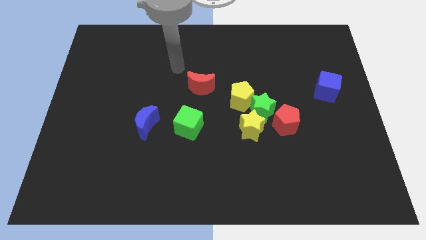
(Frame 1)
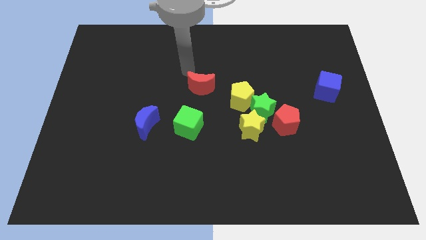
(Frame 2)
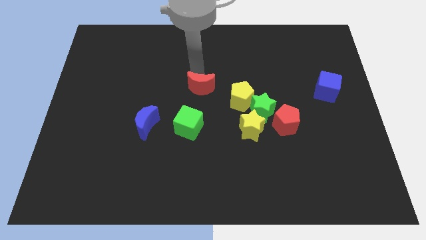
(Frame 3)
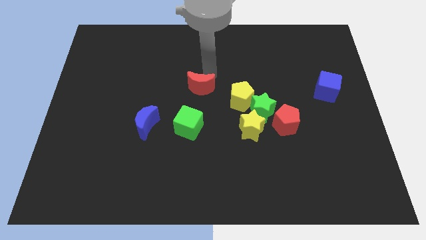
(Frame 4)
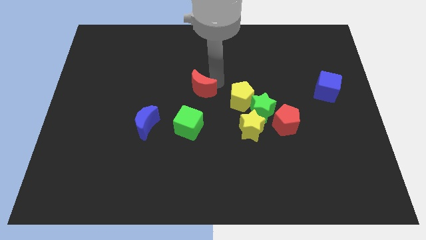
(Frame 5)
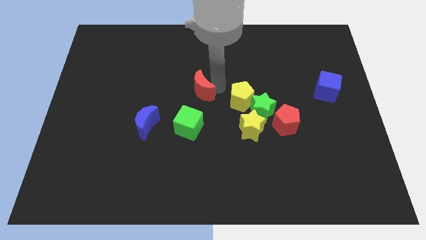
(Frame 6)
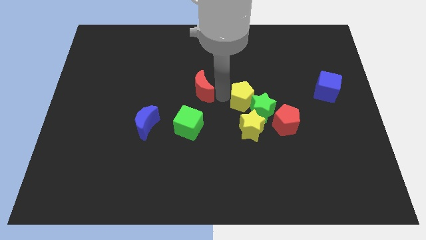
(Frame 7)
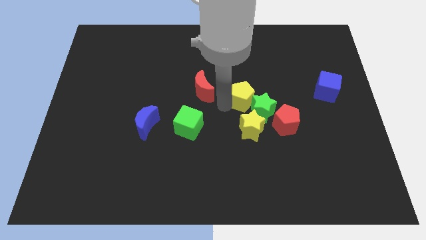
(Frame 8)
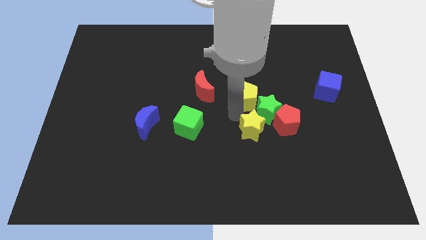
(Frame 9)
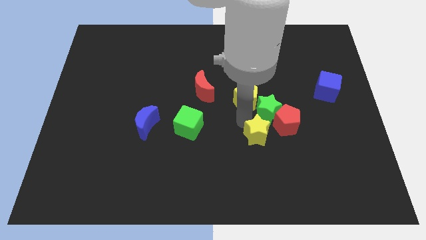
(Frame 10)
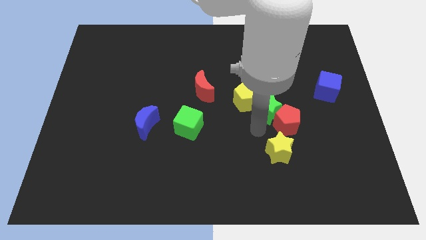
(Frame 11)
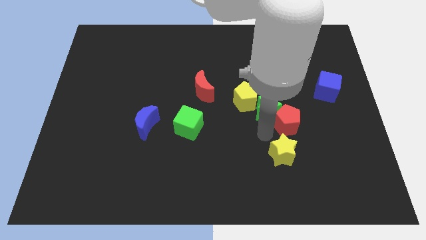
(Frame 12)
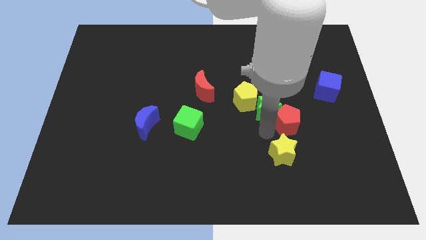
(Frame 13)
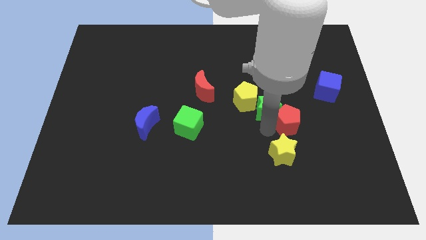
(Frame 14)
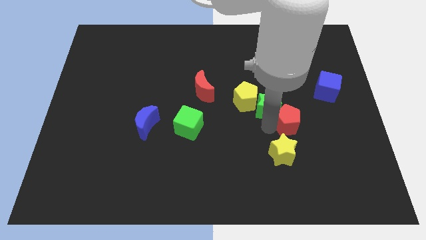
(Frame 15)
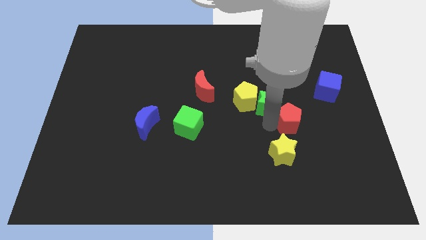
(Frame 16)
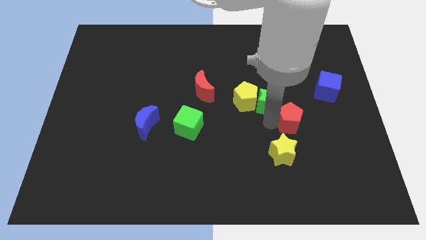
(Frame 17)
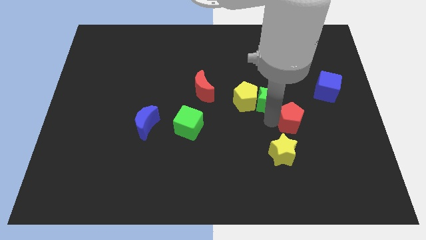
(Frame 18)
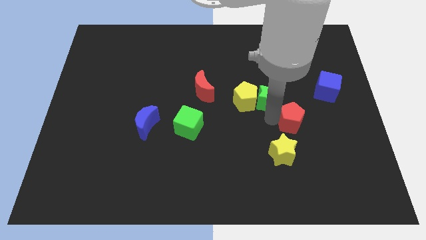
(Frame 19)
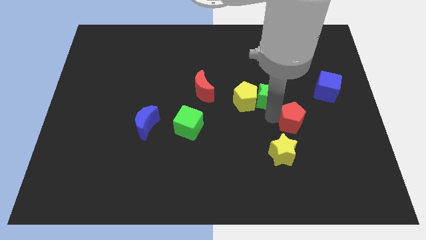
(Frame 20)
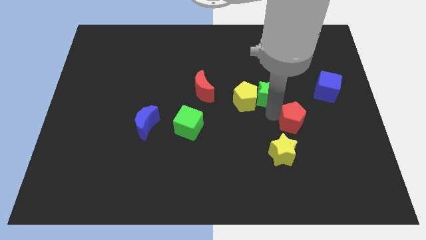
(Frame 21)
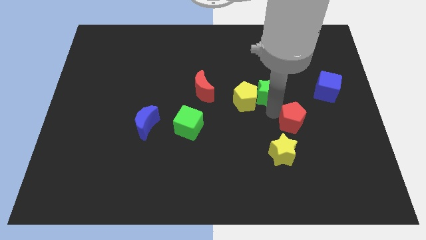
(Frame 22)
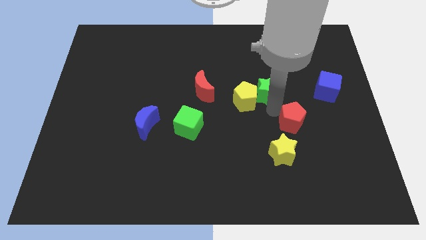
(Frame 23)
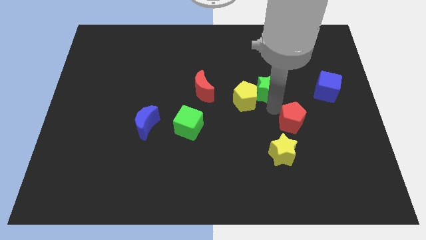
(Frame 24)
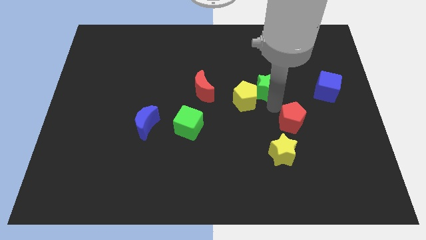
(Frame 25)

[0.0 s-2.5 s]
move the green star away from the yellow pentagon, yellow star, and red pentagon

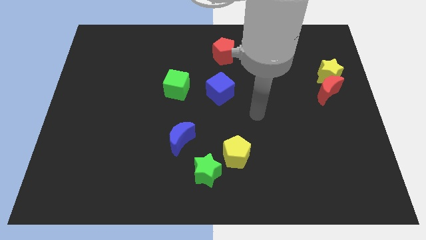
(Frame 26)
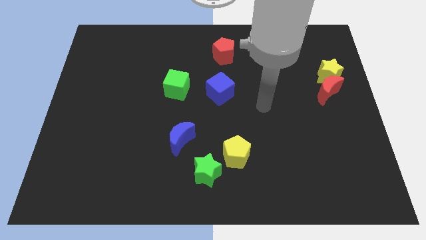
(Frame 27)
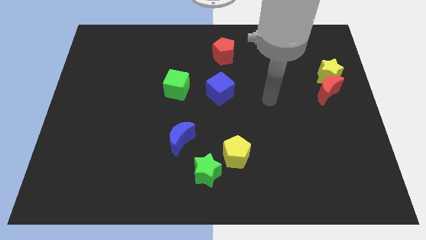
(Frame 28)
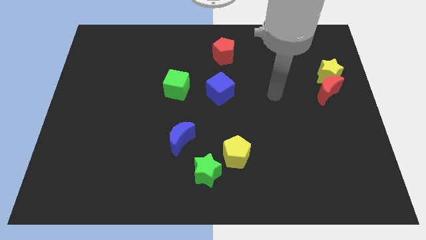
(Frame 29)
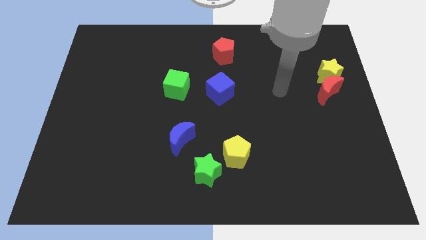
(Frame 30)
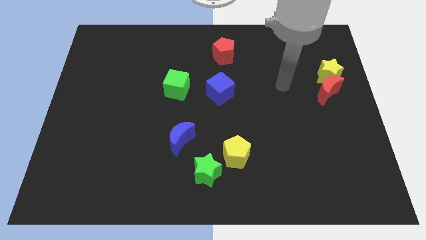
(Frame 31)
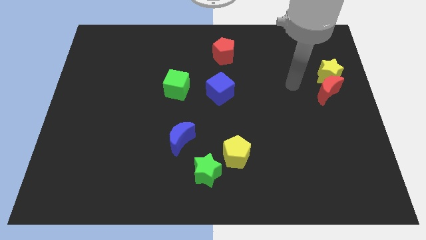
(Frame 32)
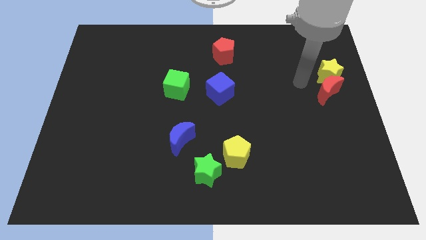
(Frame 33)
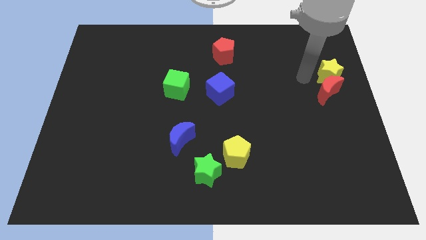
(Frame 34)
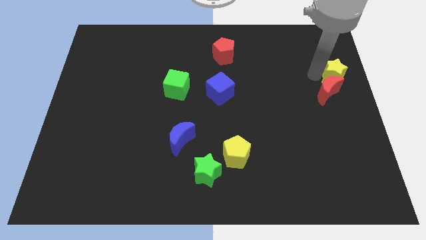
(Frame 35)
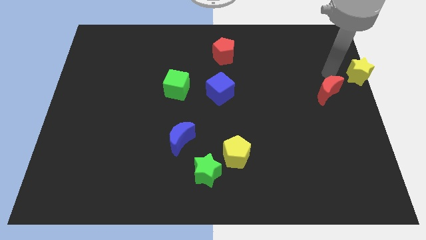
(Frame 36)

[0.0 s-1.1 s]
separate the red moon from the yellow star

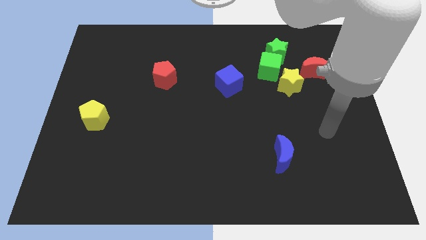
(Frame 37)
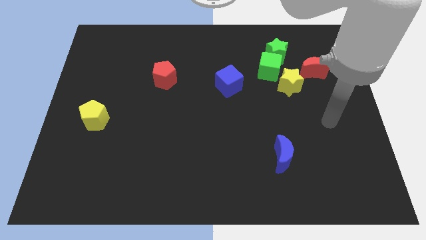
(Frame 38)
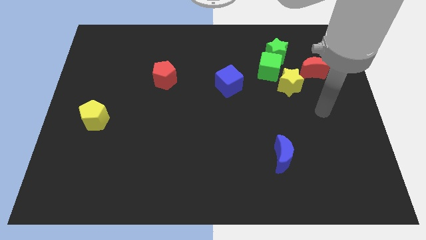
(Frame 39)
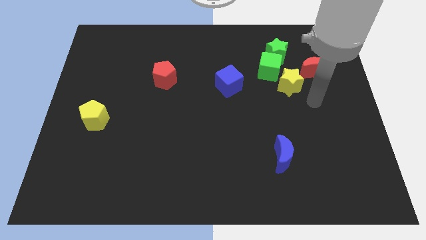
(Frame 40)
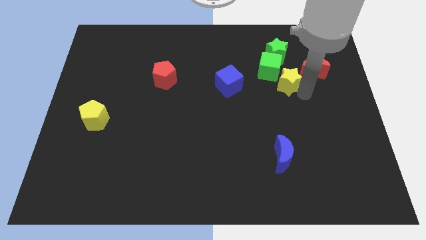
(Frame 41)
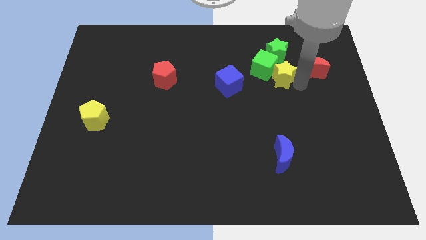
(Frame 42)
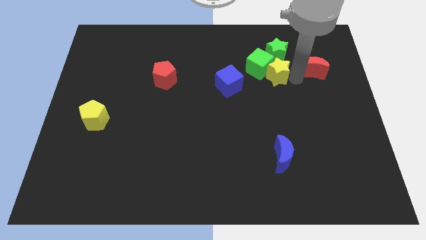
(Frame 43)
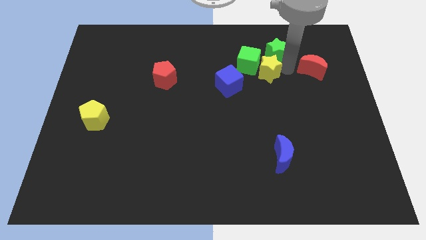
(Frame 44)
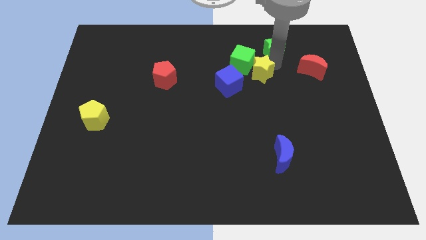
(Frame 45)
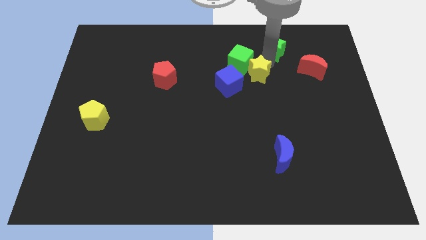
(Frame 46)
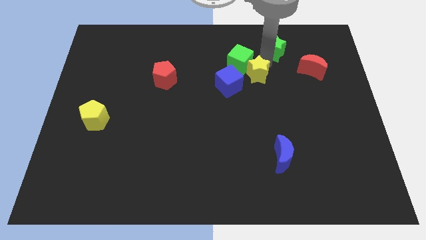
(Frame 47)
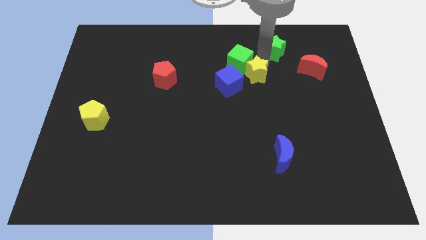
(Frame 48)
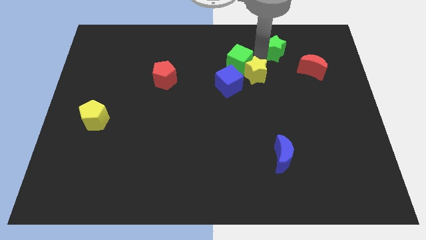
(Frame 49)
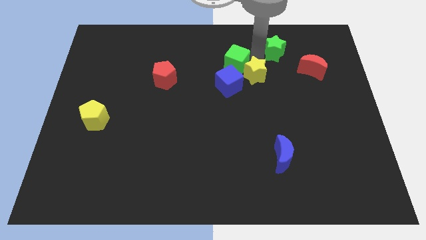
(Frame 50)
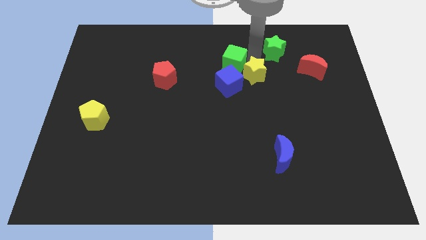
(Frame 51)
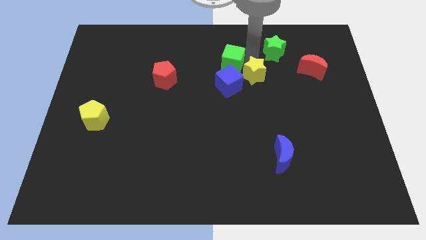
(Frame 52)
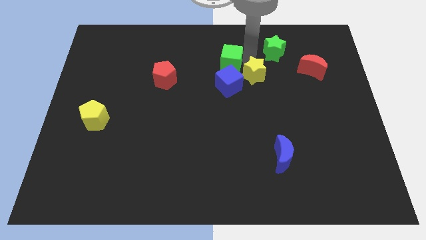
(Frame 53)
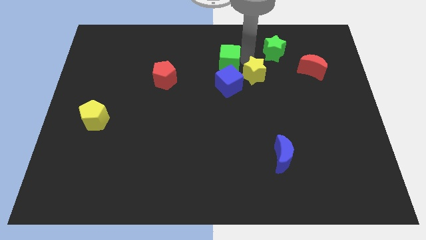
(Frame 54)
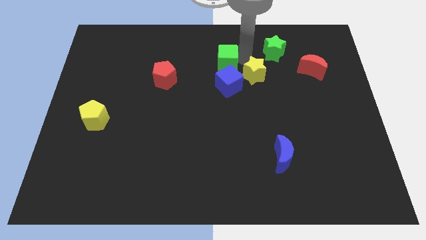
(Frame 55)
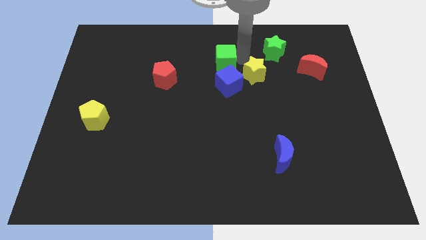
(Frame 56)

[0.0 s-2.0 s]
pull the green cube apart from the green star and yellow star

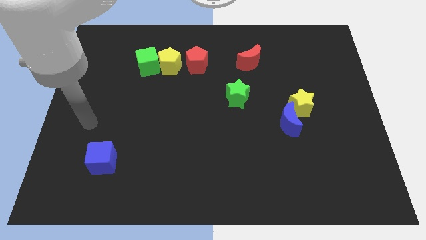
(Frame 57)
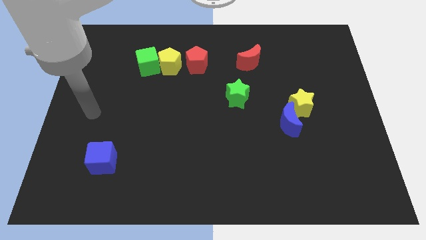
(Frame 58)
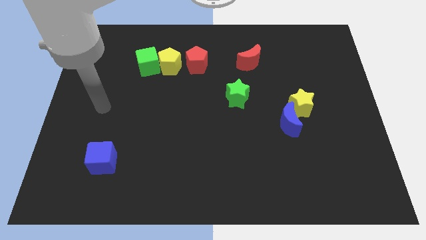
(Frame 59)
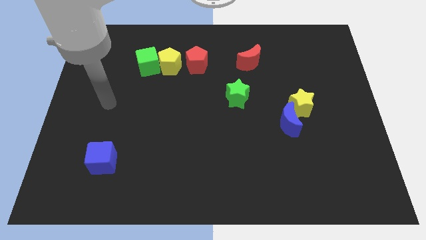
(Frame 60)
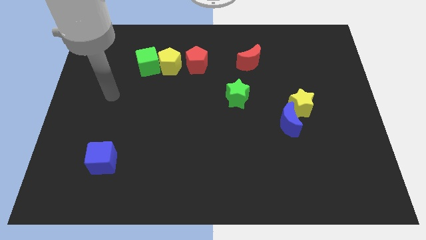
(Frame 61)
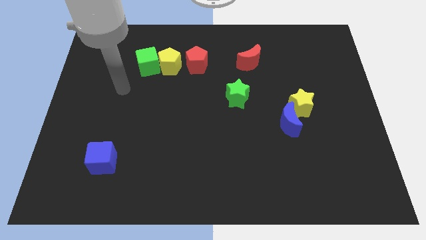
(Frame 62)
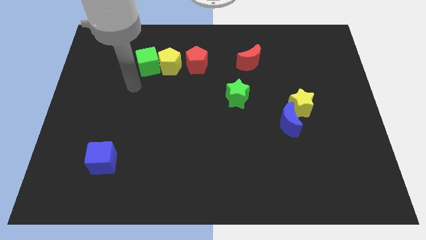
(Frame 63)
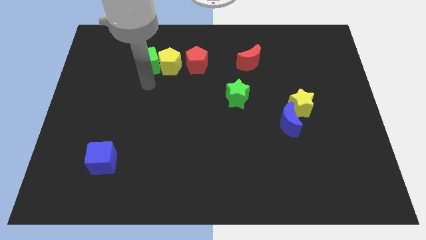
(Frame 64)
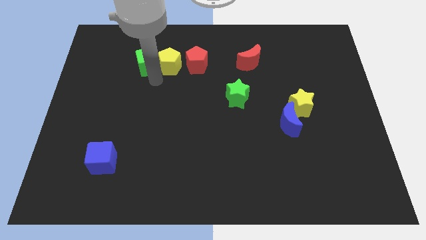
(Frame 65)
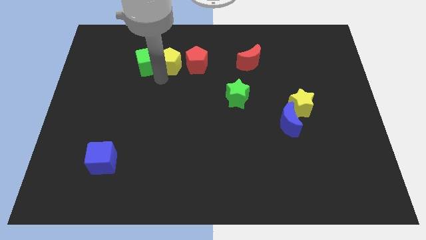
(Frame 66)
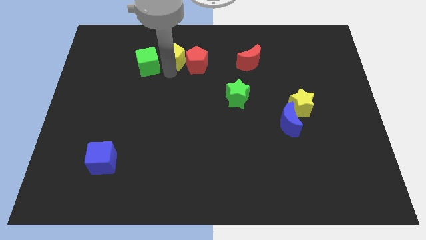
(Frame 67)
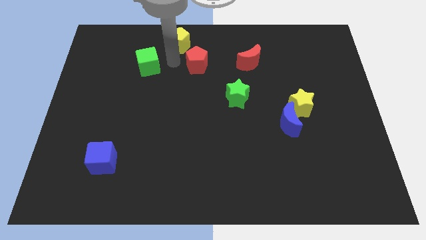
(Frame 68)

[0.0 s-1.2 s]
pull the green cube apart from the yellow pentagon

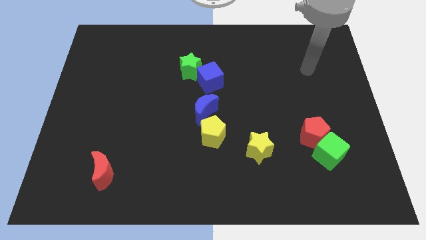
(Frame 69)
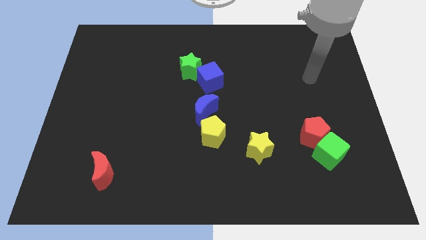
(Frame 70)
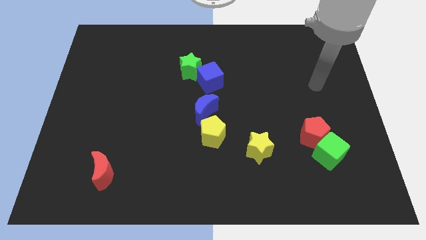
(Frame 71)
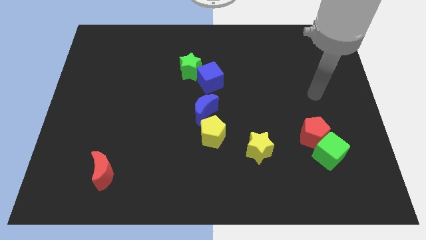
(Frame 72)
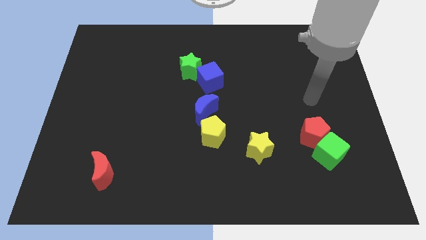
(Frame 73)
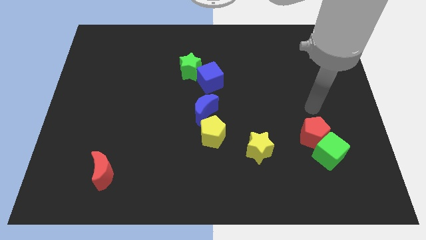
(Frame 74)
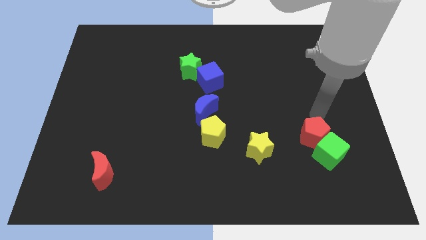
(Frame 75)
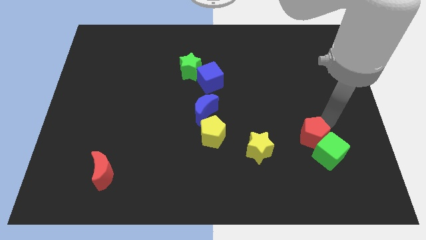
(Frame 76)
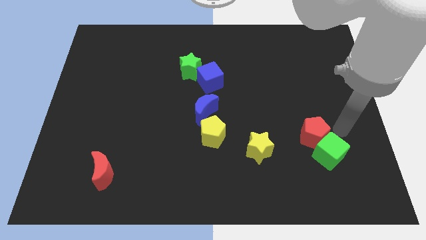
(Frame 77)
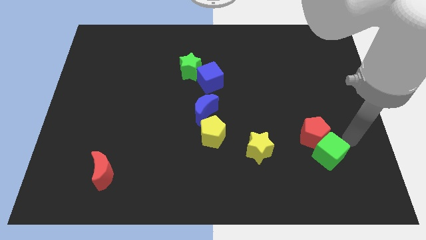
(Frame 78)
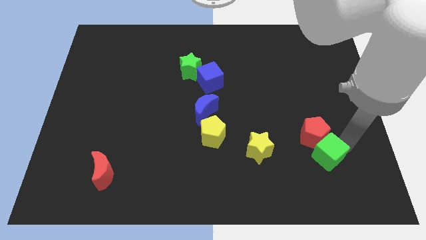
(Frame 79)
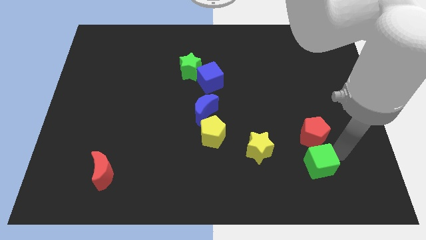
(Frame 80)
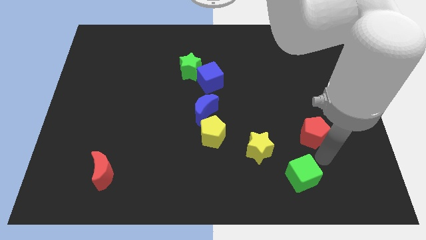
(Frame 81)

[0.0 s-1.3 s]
pull the red pentagon apart from the green cube

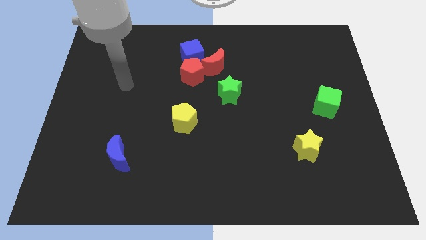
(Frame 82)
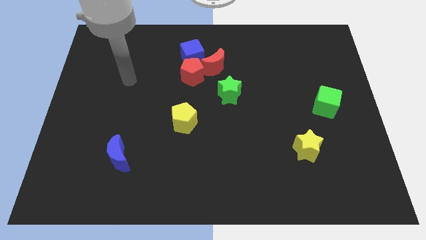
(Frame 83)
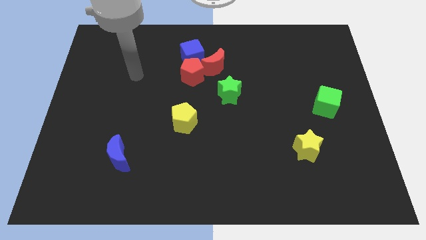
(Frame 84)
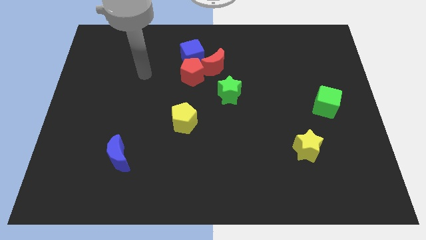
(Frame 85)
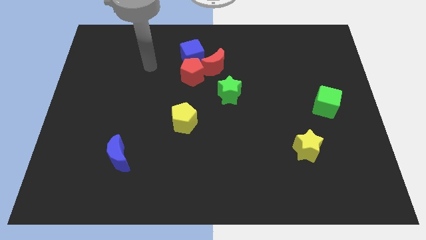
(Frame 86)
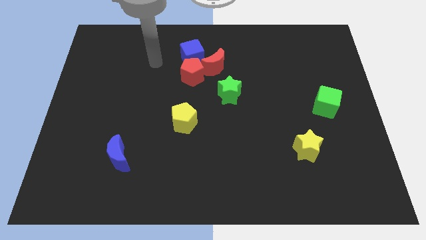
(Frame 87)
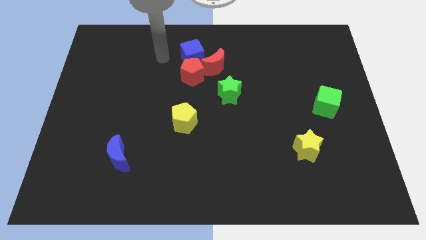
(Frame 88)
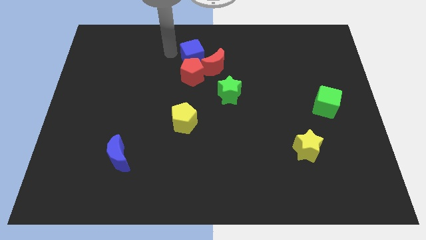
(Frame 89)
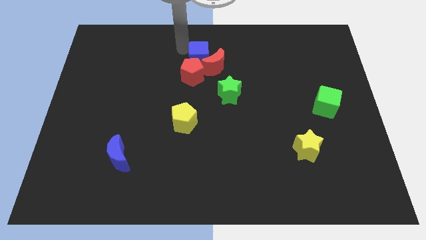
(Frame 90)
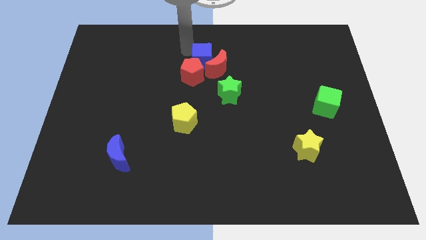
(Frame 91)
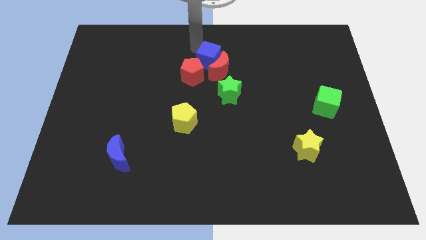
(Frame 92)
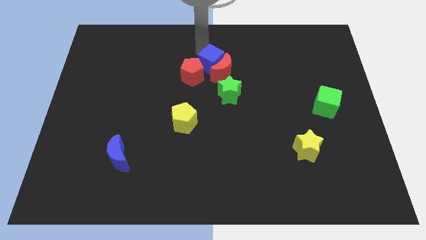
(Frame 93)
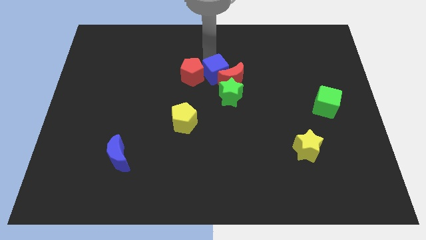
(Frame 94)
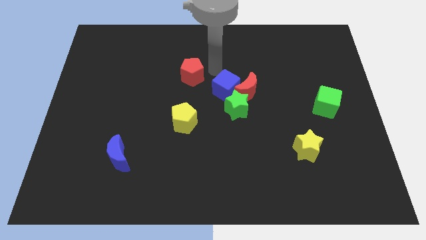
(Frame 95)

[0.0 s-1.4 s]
separate the red pentagon from the blue cube and red moon
